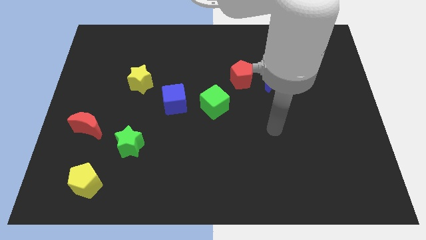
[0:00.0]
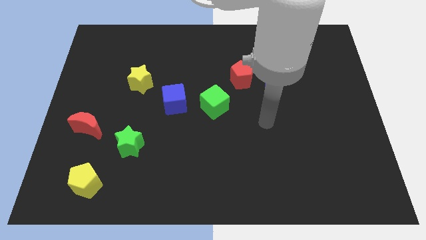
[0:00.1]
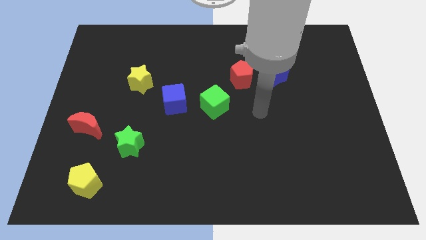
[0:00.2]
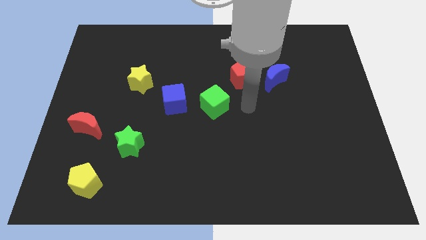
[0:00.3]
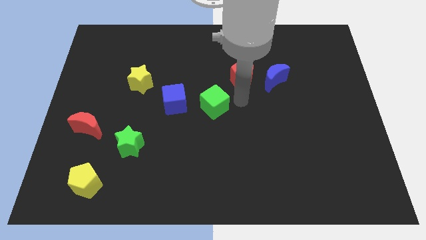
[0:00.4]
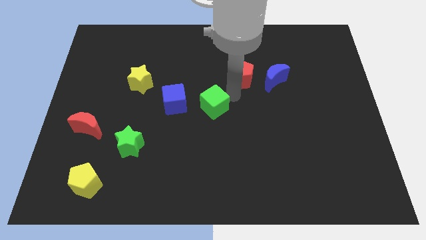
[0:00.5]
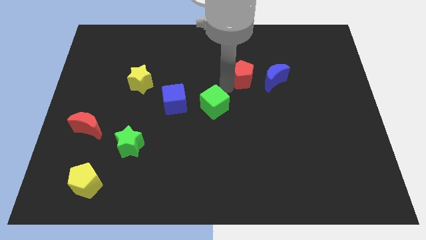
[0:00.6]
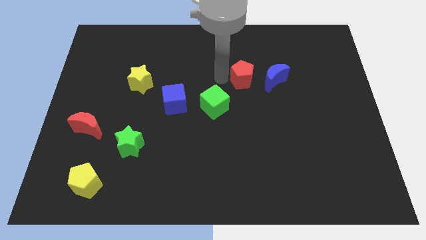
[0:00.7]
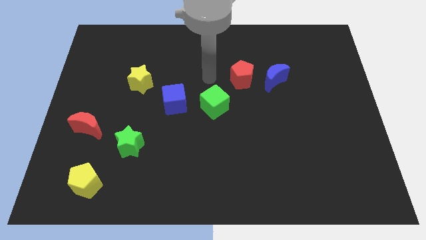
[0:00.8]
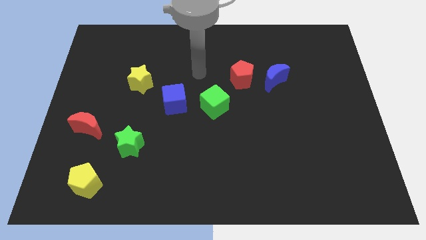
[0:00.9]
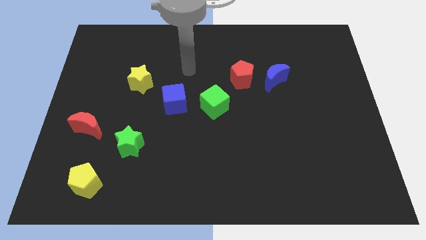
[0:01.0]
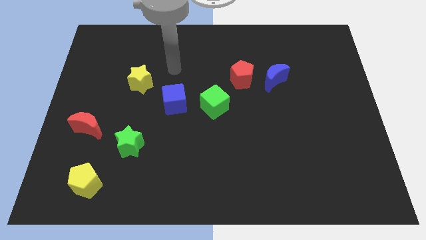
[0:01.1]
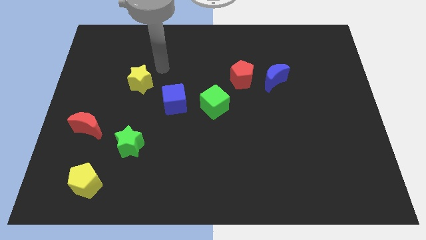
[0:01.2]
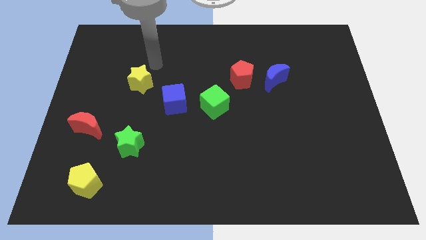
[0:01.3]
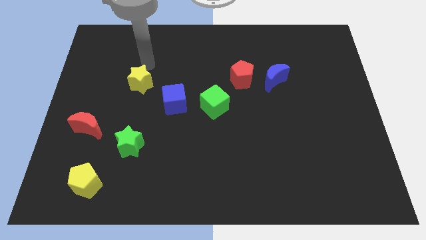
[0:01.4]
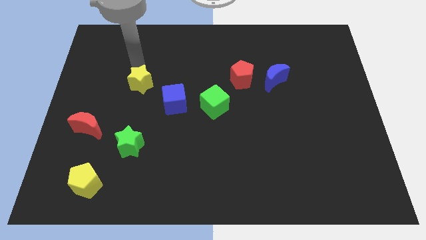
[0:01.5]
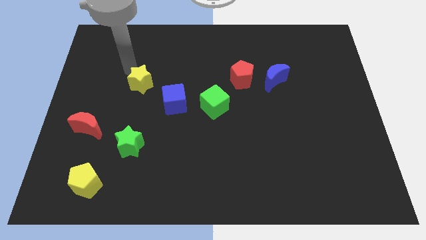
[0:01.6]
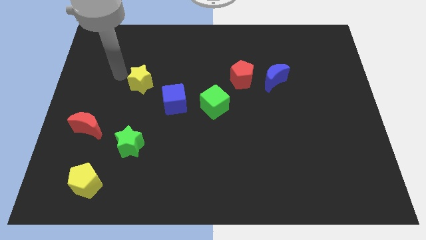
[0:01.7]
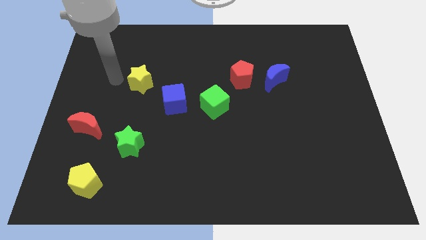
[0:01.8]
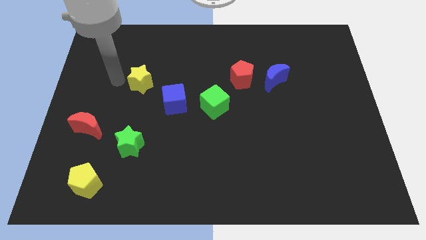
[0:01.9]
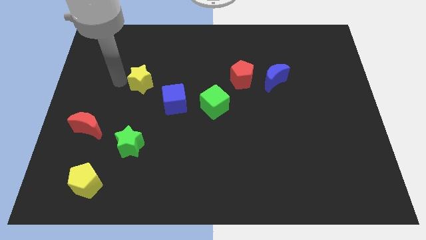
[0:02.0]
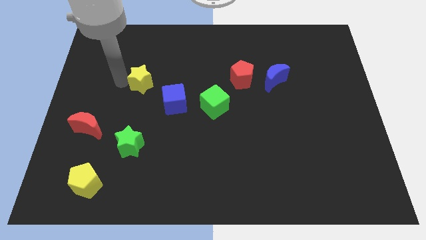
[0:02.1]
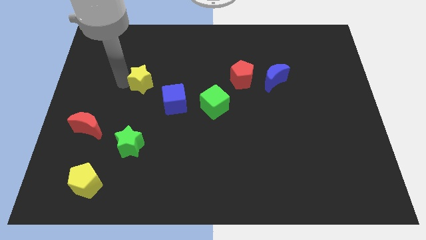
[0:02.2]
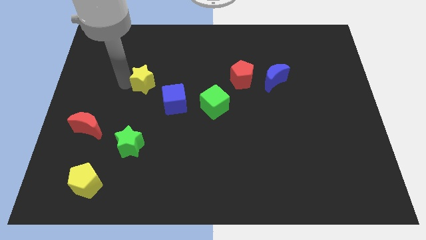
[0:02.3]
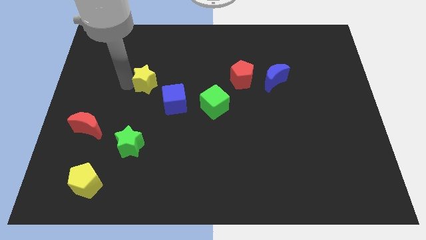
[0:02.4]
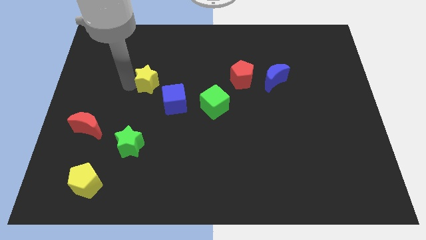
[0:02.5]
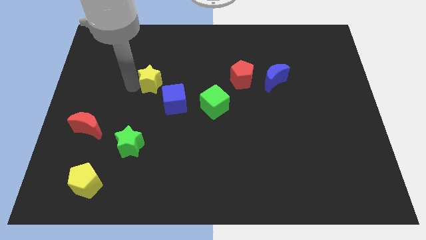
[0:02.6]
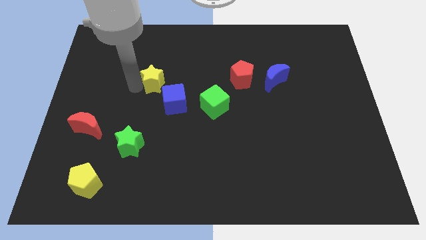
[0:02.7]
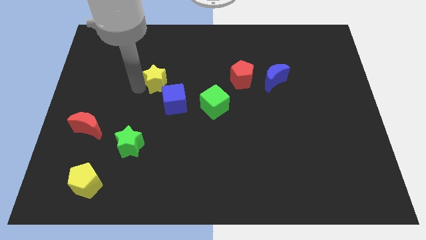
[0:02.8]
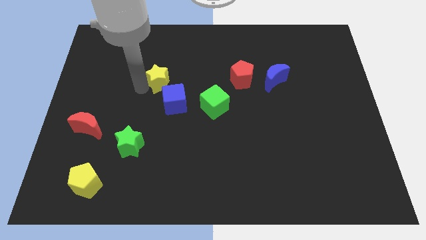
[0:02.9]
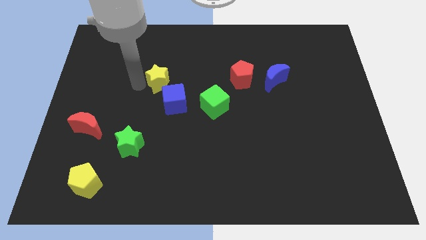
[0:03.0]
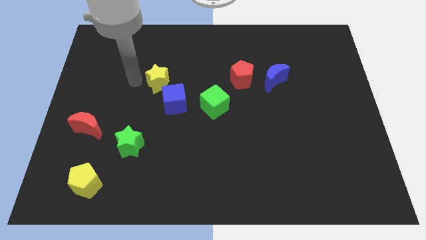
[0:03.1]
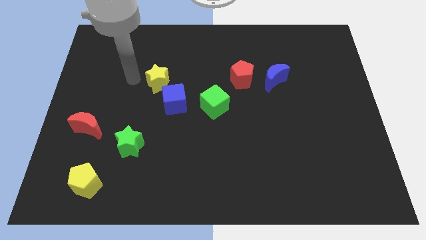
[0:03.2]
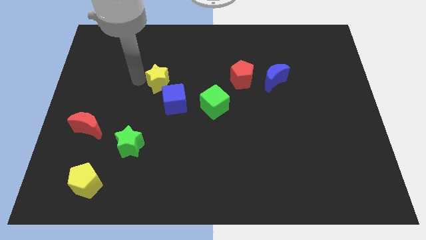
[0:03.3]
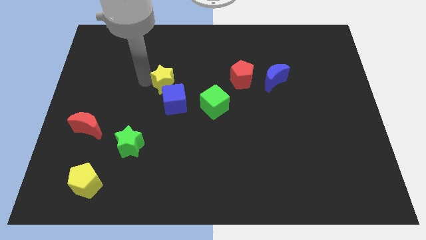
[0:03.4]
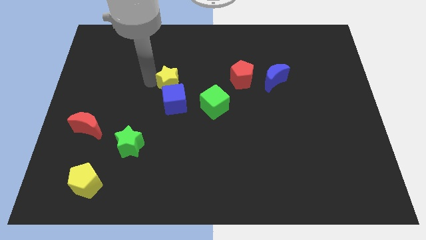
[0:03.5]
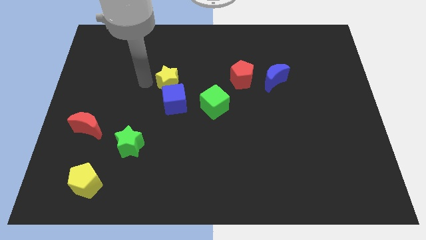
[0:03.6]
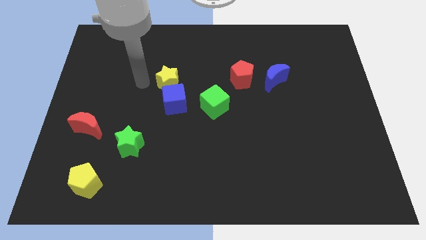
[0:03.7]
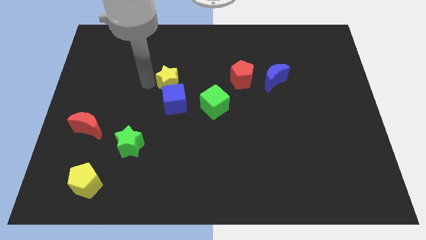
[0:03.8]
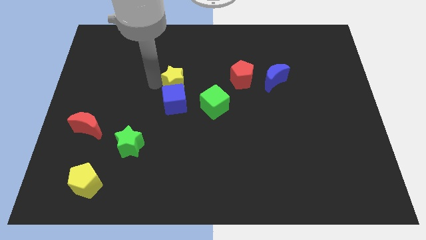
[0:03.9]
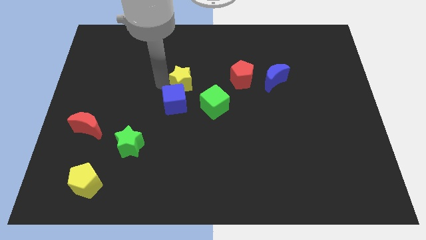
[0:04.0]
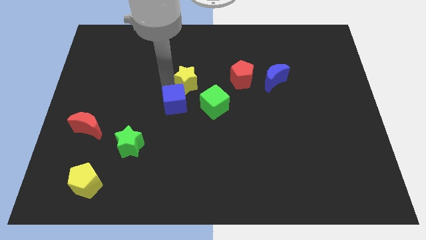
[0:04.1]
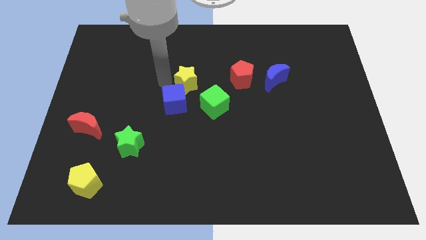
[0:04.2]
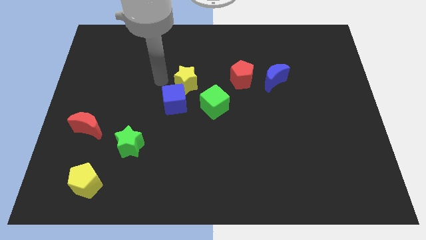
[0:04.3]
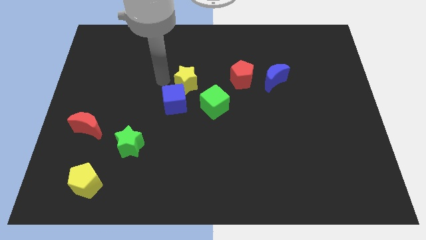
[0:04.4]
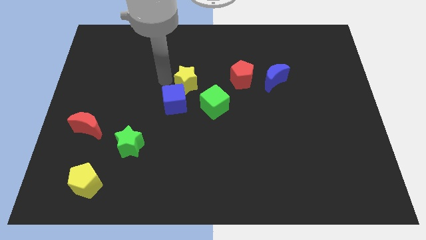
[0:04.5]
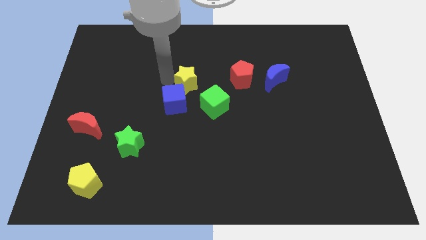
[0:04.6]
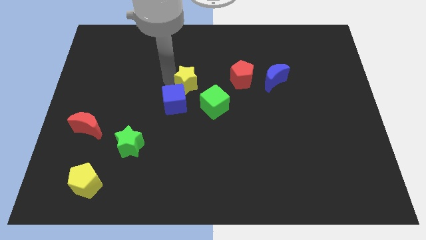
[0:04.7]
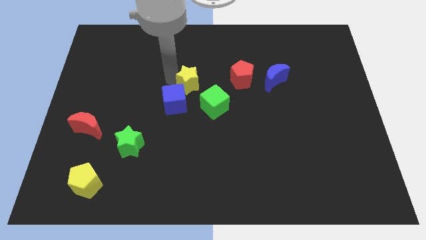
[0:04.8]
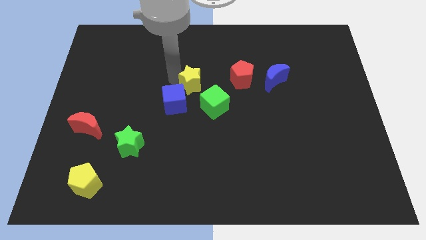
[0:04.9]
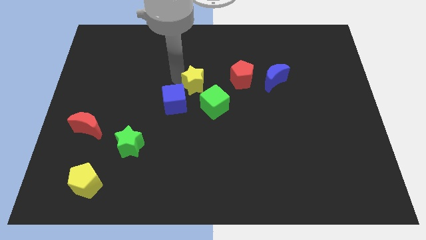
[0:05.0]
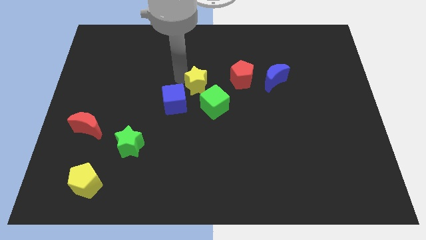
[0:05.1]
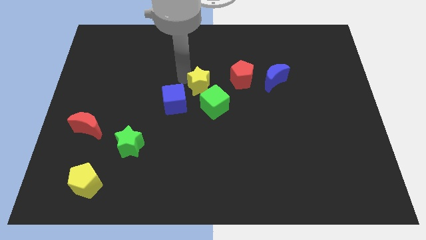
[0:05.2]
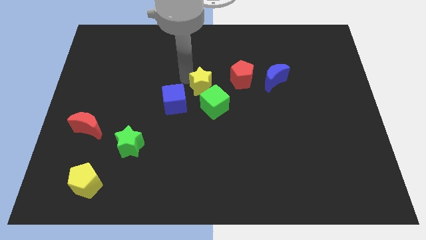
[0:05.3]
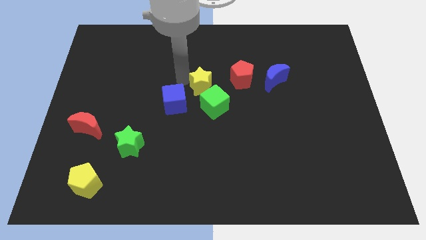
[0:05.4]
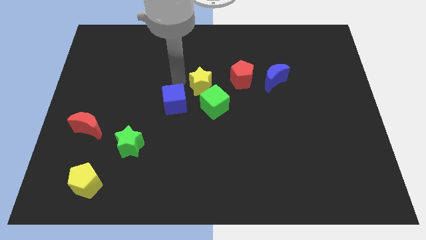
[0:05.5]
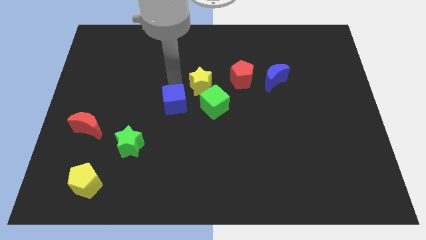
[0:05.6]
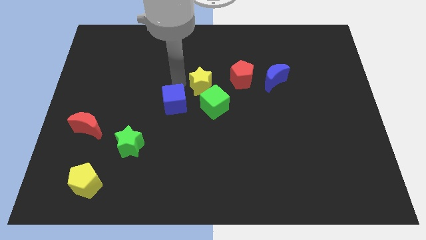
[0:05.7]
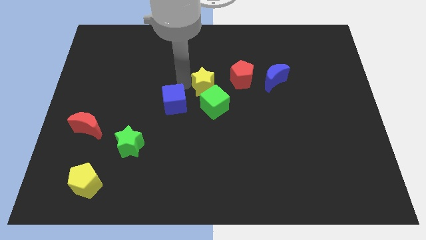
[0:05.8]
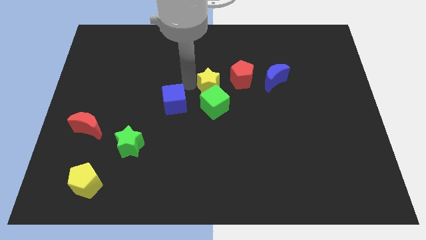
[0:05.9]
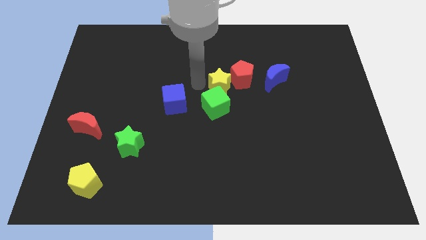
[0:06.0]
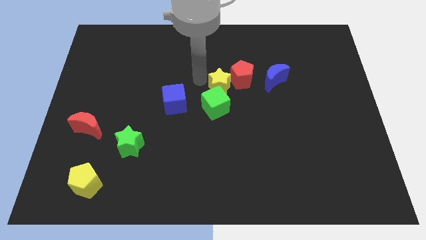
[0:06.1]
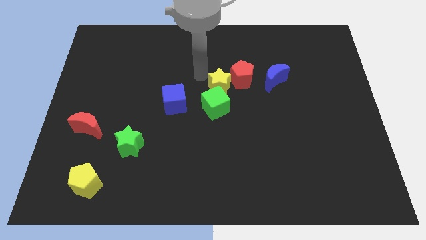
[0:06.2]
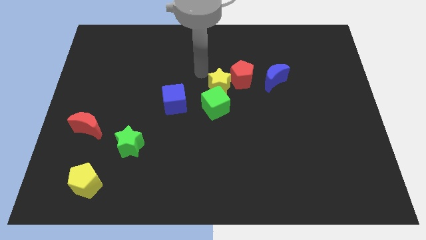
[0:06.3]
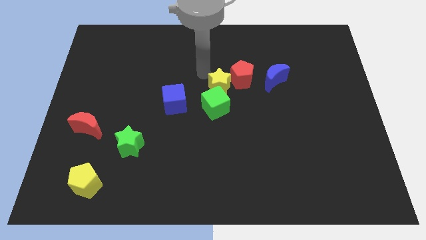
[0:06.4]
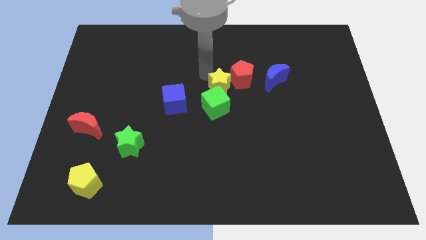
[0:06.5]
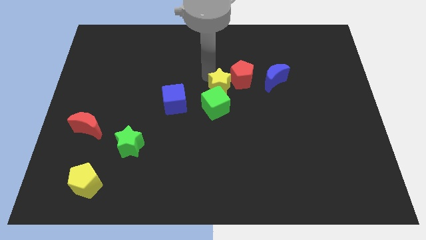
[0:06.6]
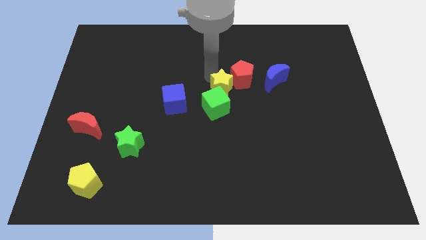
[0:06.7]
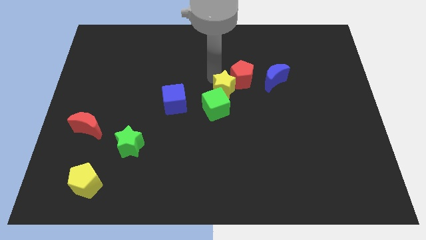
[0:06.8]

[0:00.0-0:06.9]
put the yellow star to the bottom side of the red pentagon
